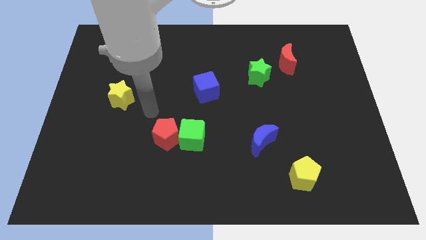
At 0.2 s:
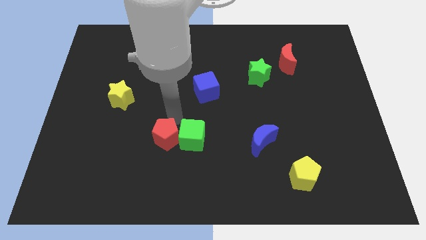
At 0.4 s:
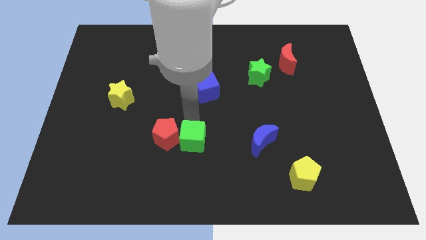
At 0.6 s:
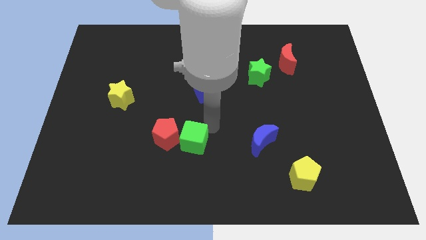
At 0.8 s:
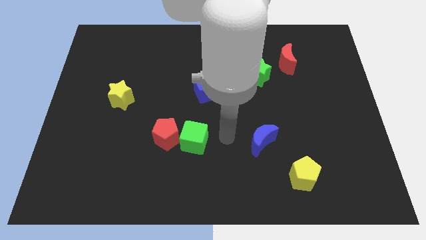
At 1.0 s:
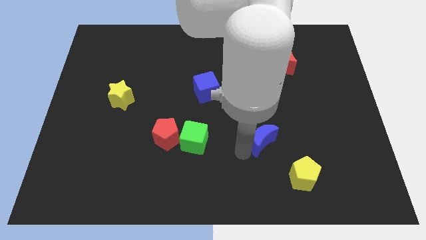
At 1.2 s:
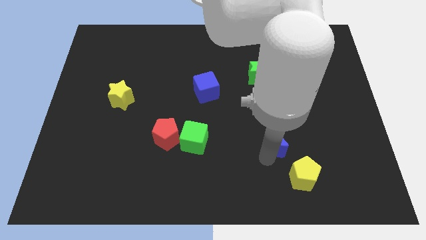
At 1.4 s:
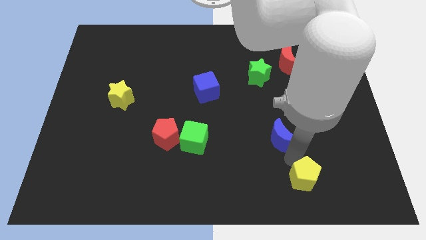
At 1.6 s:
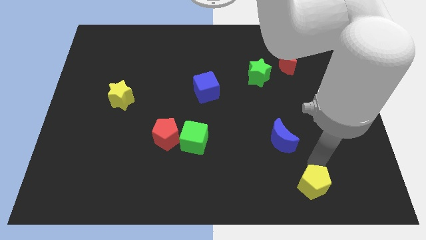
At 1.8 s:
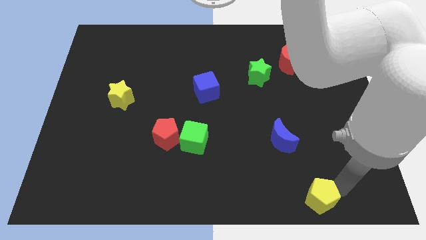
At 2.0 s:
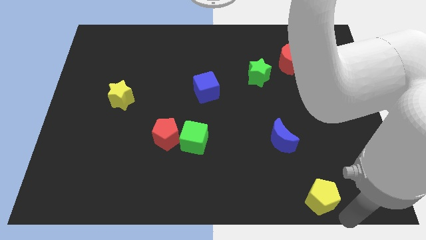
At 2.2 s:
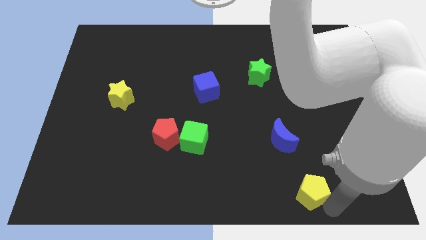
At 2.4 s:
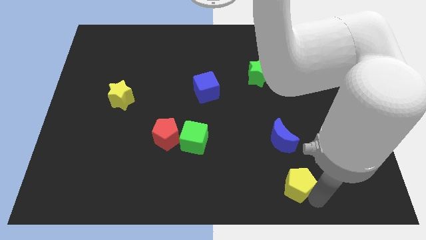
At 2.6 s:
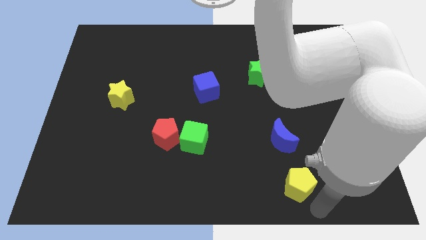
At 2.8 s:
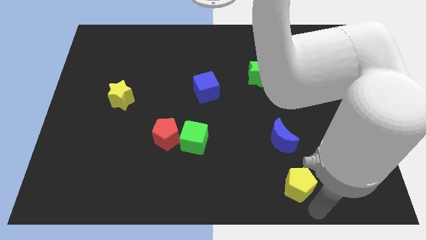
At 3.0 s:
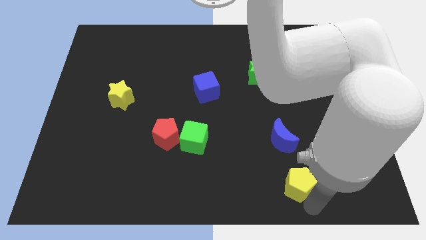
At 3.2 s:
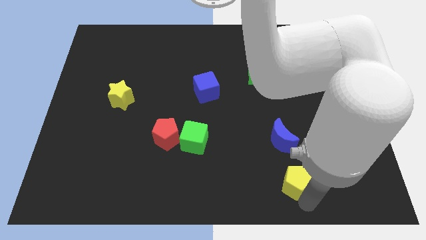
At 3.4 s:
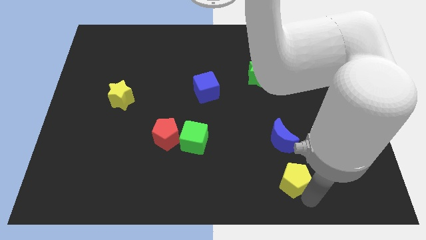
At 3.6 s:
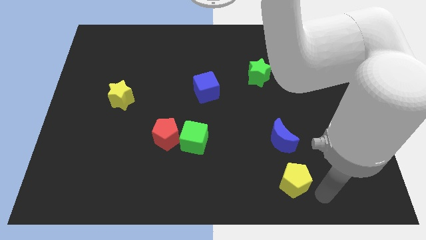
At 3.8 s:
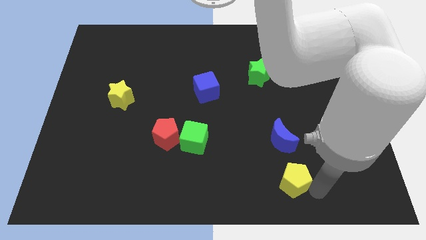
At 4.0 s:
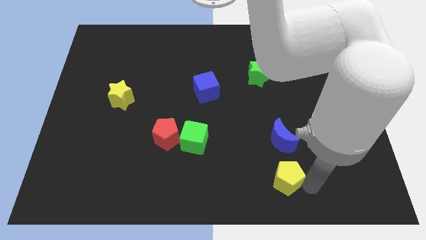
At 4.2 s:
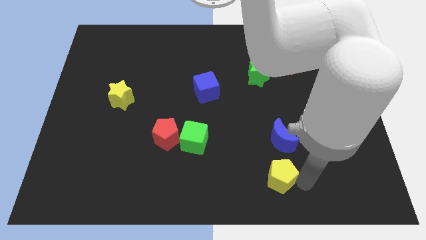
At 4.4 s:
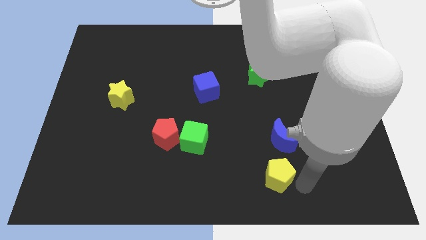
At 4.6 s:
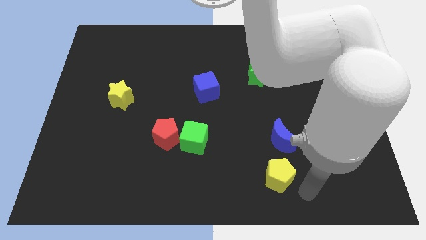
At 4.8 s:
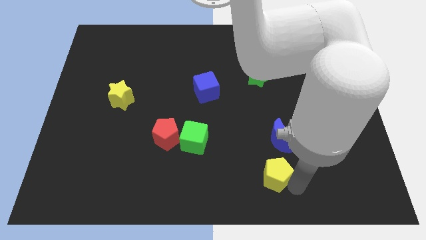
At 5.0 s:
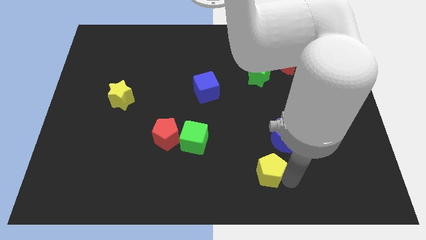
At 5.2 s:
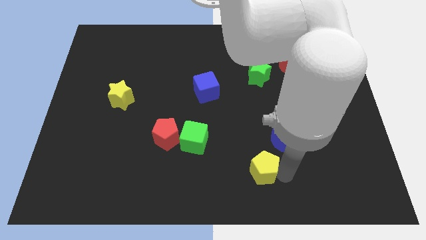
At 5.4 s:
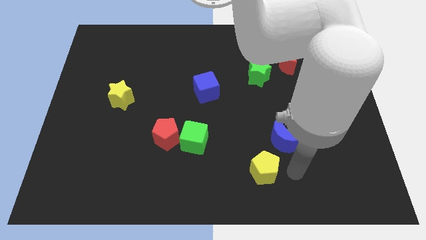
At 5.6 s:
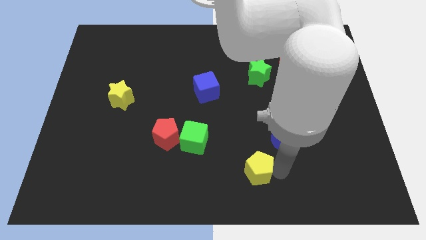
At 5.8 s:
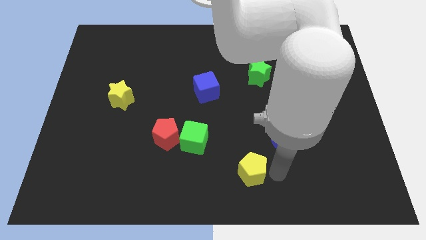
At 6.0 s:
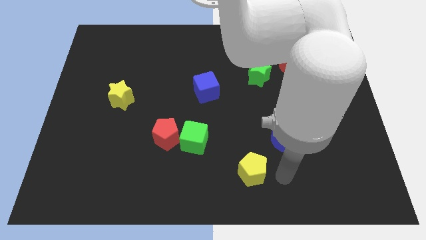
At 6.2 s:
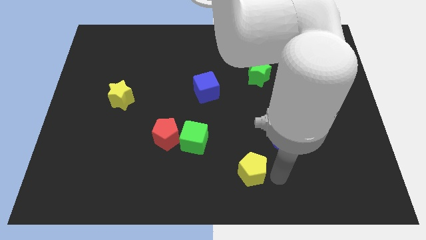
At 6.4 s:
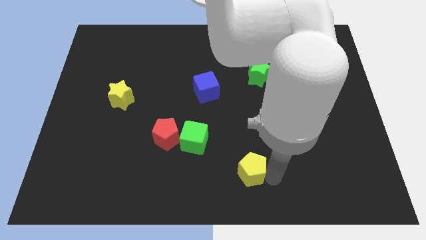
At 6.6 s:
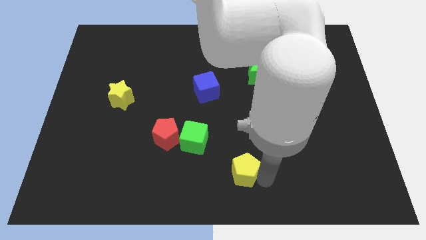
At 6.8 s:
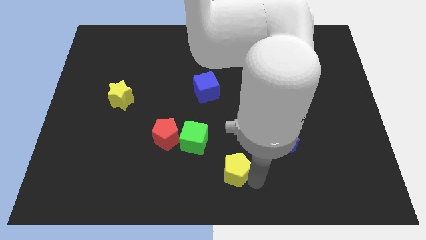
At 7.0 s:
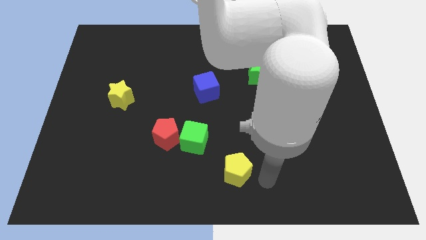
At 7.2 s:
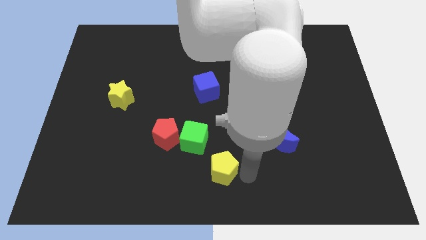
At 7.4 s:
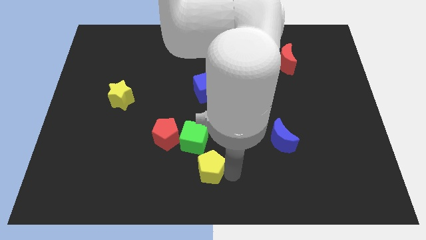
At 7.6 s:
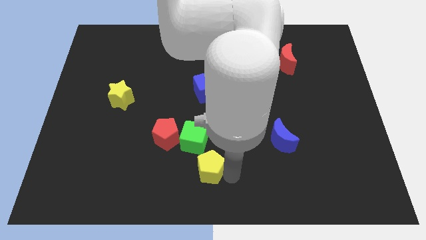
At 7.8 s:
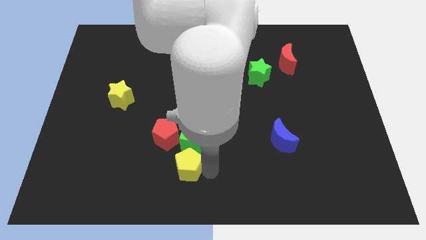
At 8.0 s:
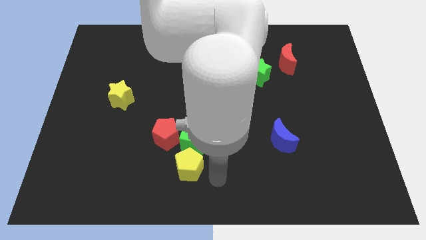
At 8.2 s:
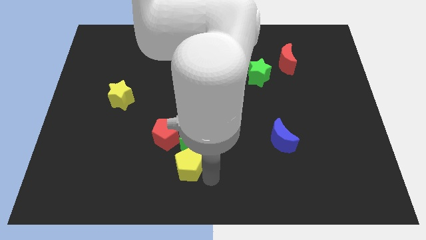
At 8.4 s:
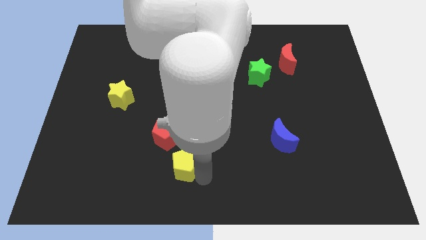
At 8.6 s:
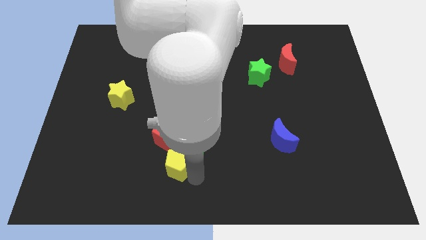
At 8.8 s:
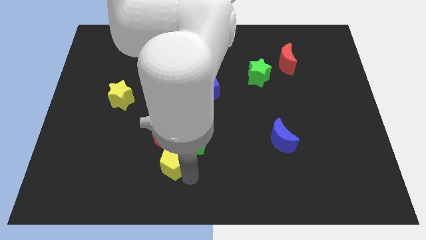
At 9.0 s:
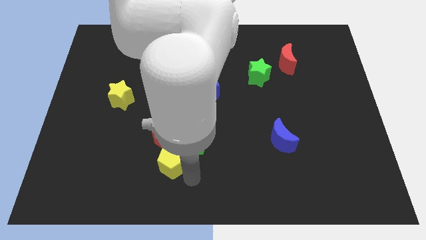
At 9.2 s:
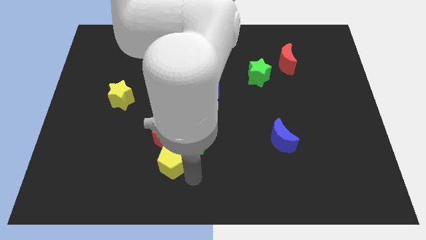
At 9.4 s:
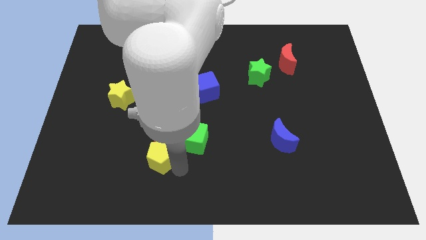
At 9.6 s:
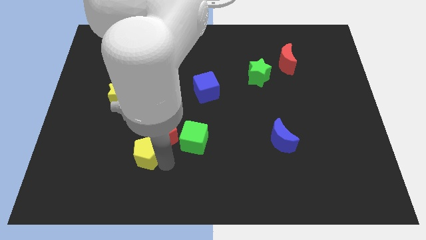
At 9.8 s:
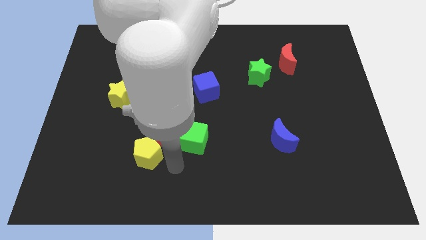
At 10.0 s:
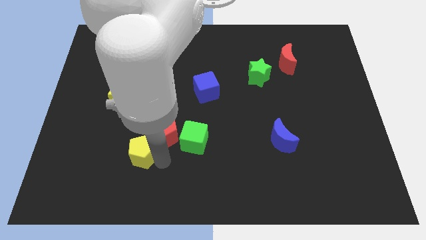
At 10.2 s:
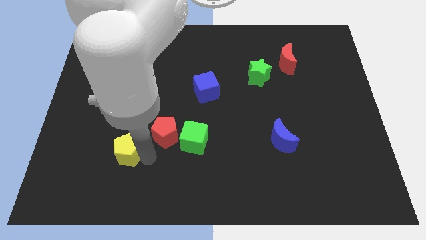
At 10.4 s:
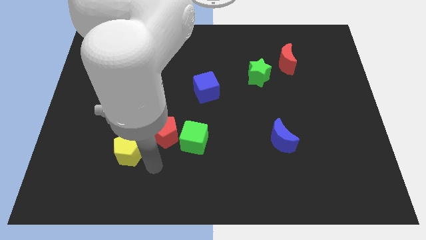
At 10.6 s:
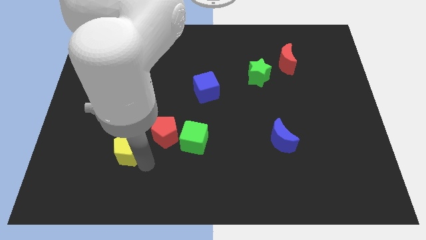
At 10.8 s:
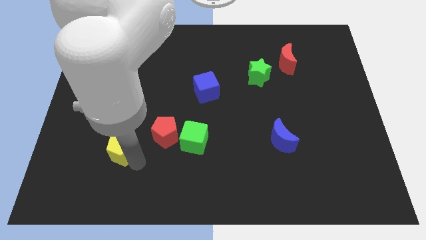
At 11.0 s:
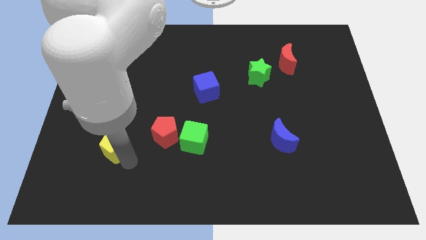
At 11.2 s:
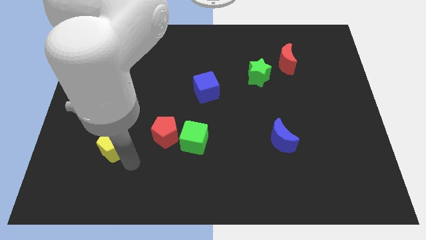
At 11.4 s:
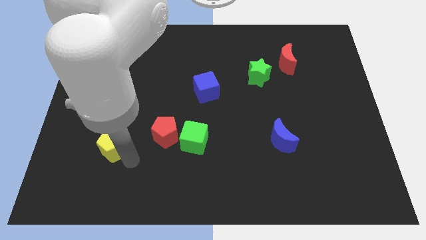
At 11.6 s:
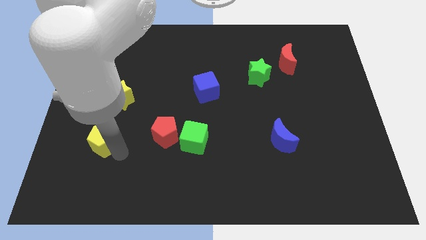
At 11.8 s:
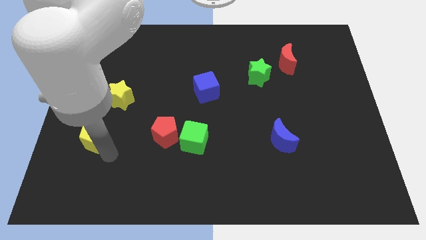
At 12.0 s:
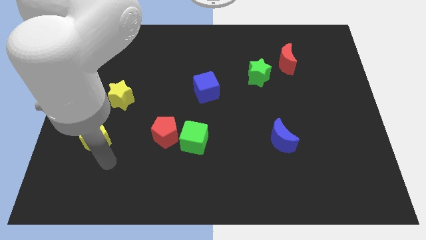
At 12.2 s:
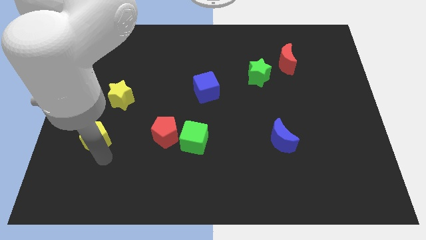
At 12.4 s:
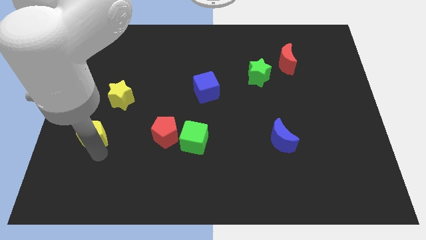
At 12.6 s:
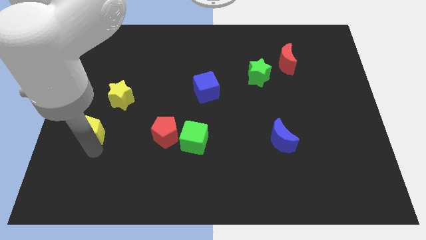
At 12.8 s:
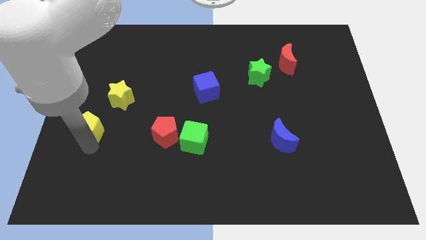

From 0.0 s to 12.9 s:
put the yellow pentagon to the left side of the board

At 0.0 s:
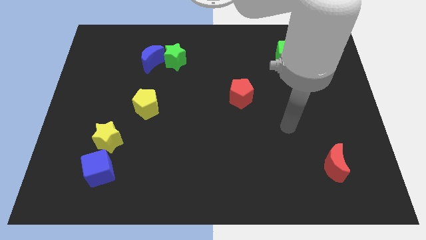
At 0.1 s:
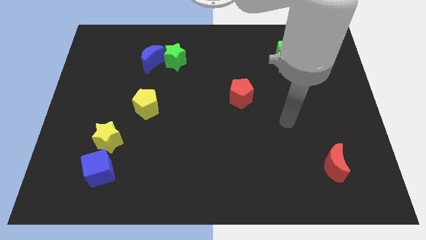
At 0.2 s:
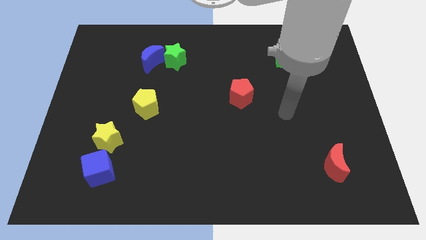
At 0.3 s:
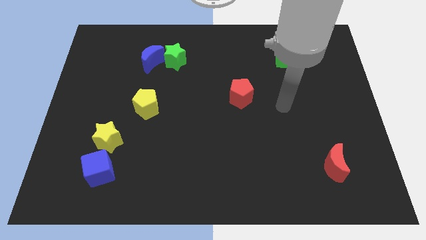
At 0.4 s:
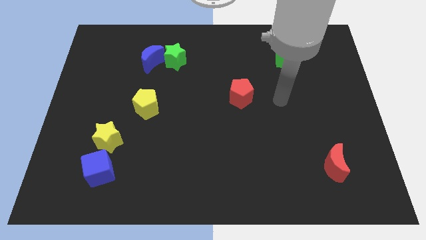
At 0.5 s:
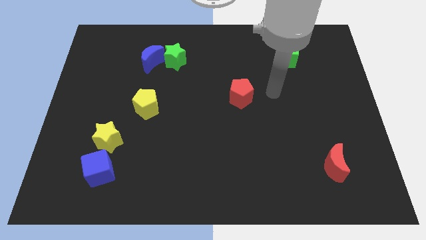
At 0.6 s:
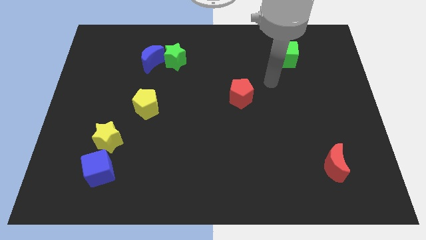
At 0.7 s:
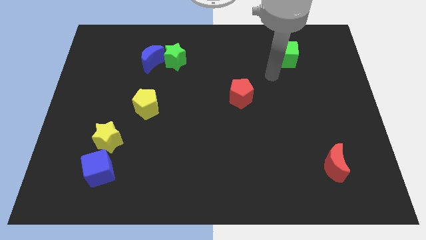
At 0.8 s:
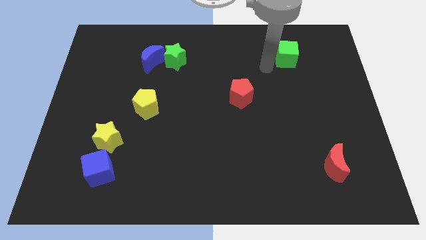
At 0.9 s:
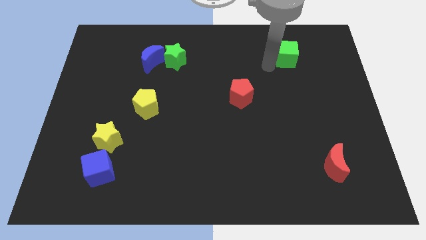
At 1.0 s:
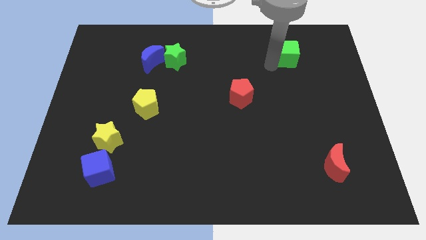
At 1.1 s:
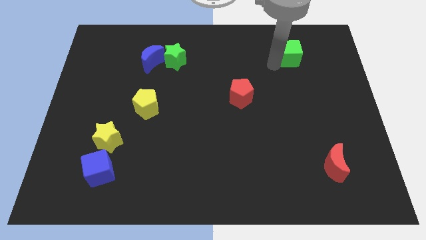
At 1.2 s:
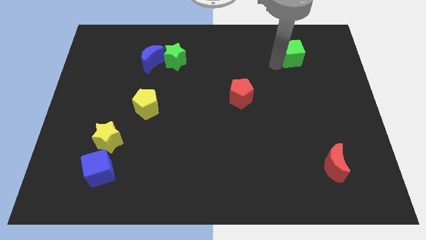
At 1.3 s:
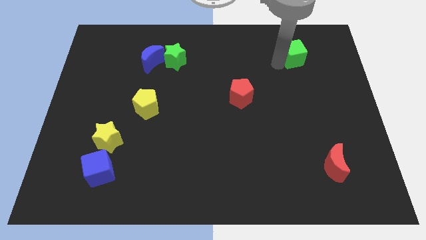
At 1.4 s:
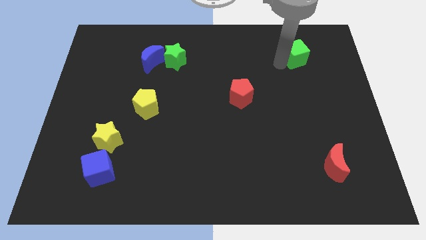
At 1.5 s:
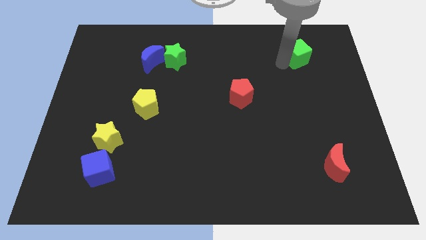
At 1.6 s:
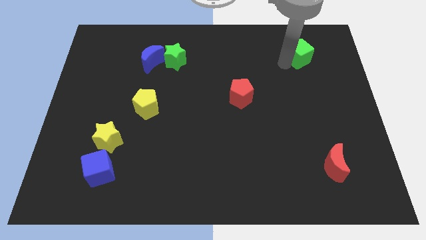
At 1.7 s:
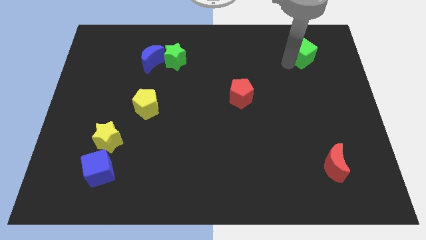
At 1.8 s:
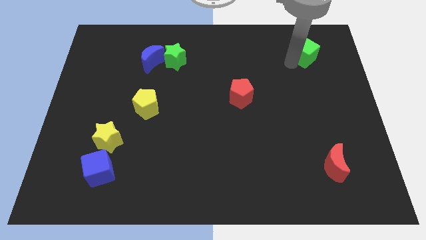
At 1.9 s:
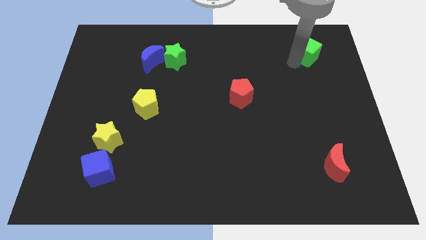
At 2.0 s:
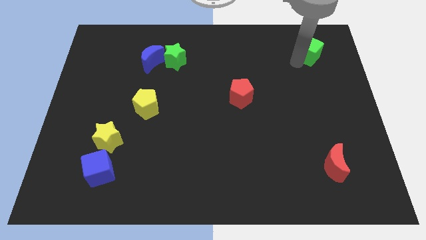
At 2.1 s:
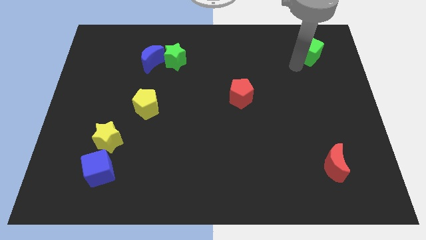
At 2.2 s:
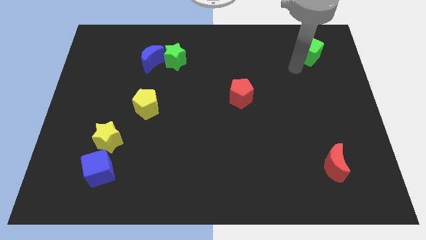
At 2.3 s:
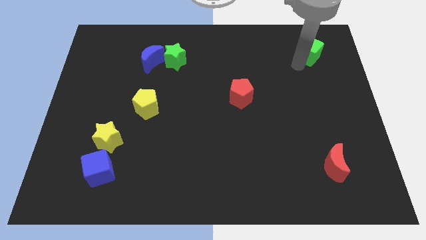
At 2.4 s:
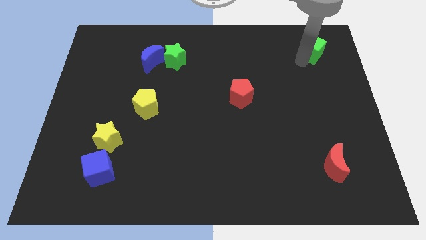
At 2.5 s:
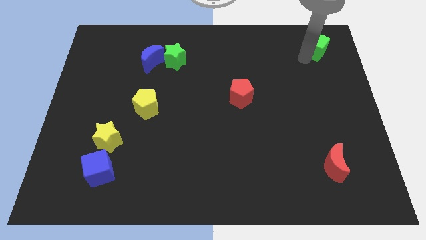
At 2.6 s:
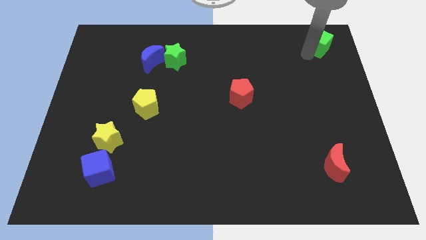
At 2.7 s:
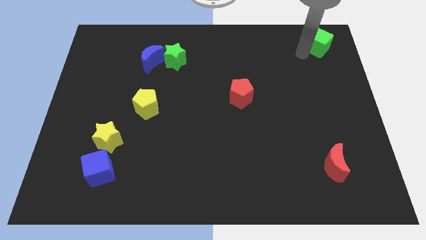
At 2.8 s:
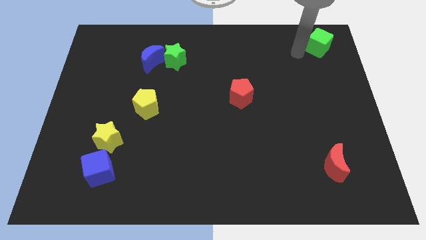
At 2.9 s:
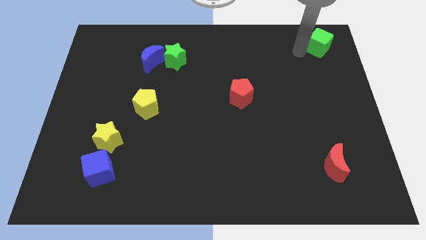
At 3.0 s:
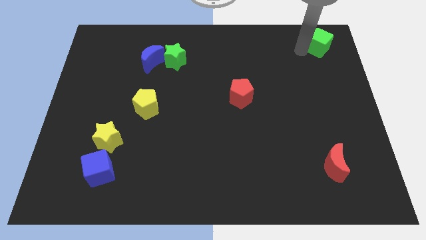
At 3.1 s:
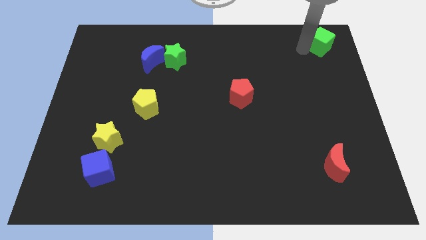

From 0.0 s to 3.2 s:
move the green cube to the top right
